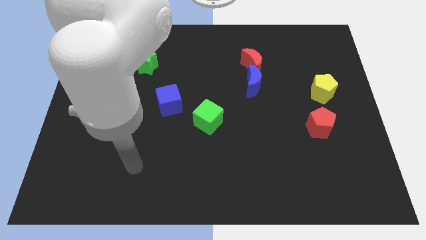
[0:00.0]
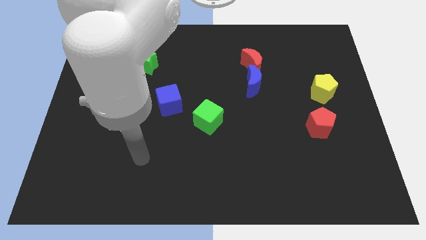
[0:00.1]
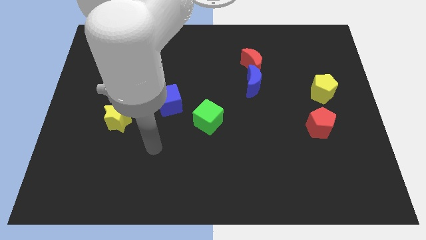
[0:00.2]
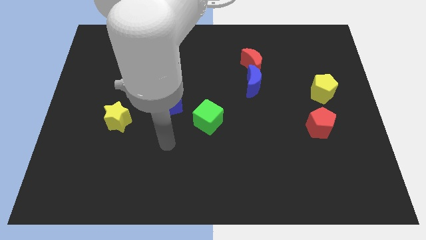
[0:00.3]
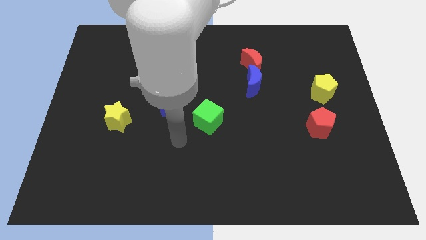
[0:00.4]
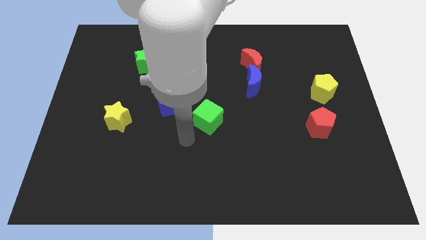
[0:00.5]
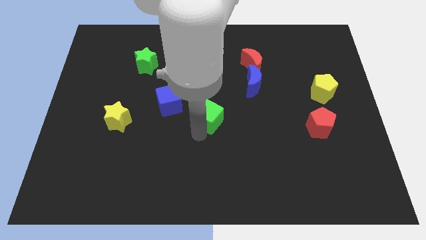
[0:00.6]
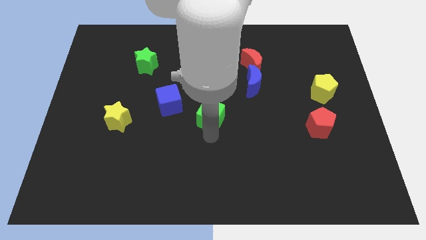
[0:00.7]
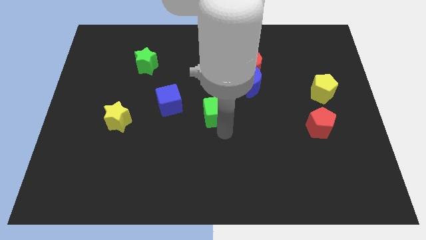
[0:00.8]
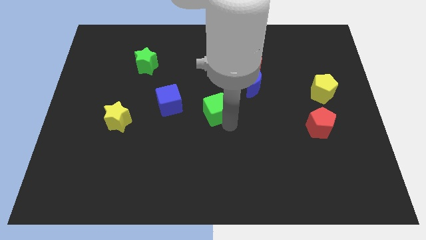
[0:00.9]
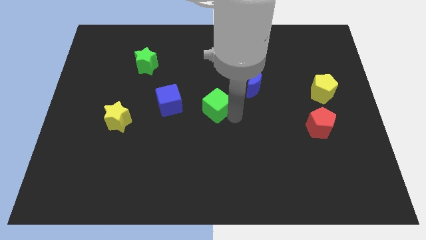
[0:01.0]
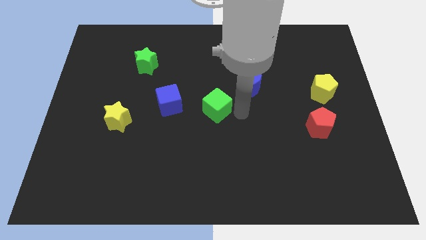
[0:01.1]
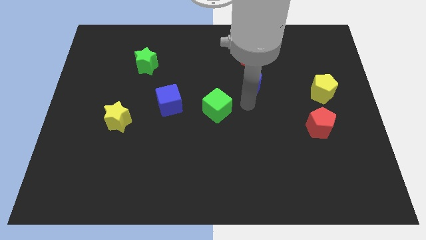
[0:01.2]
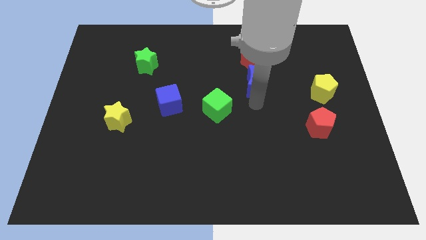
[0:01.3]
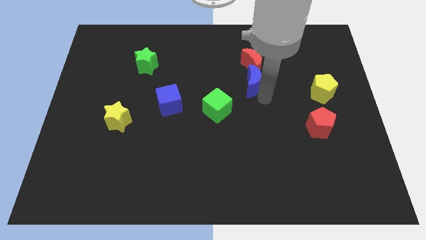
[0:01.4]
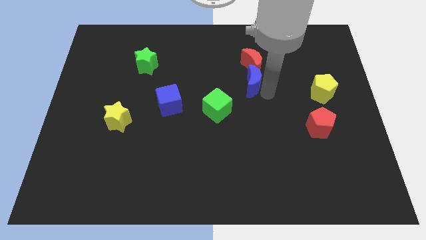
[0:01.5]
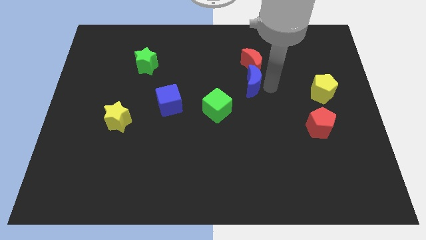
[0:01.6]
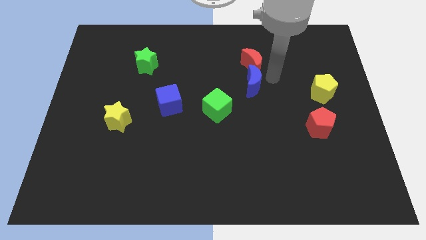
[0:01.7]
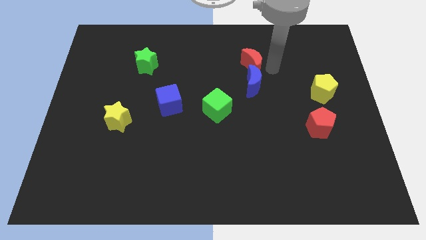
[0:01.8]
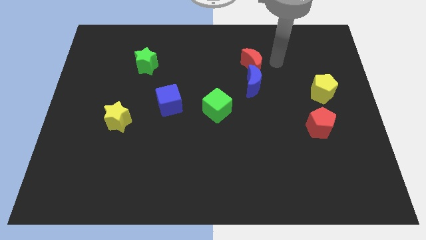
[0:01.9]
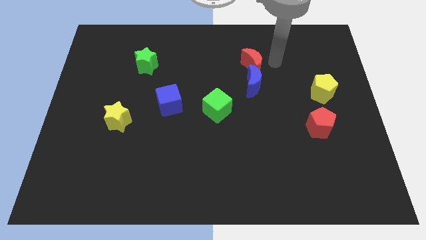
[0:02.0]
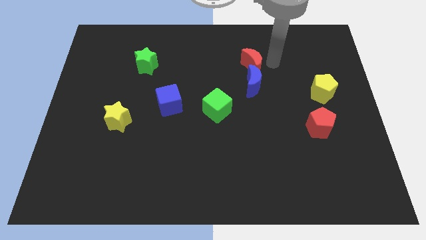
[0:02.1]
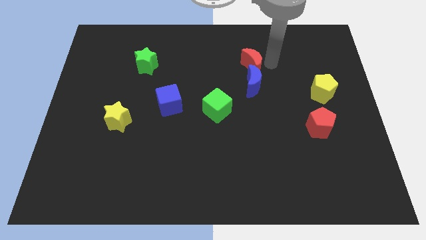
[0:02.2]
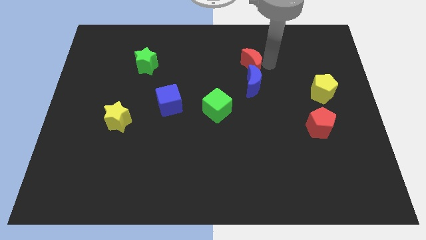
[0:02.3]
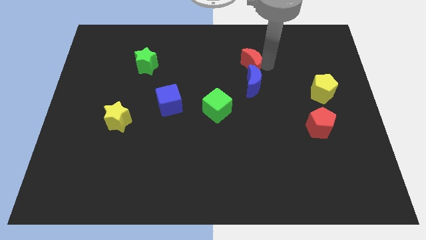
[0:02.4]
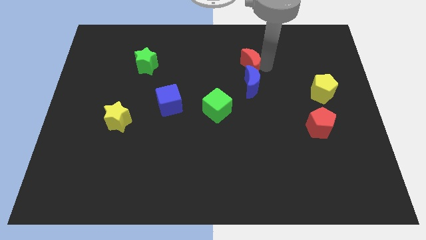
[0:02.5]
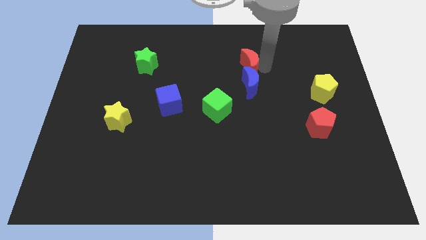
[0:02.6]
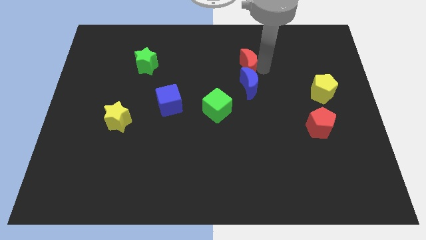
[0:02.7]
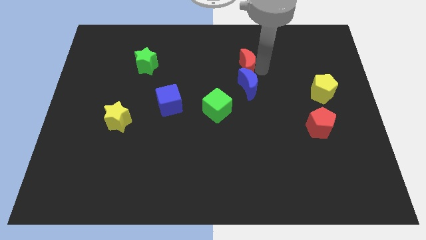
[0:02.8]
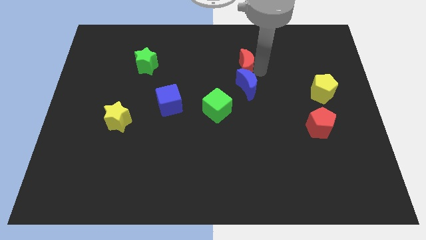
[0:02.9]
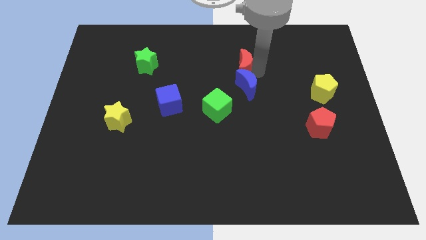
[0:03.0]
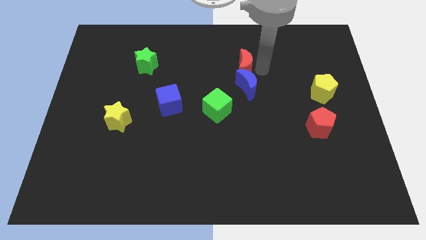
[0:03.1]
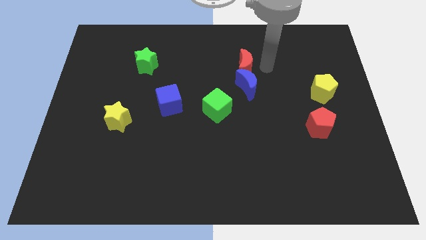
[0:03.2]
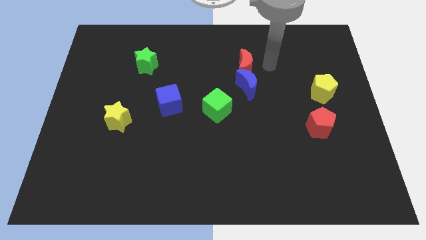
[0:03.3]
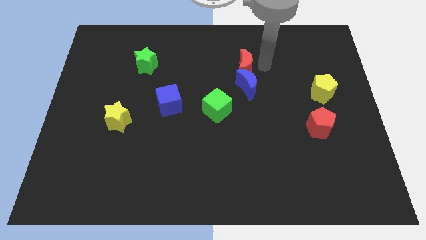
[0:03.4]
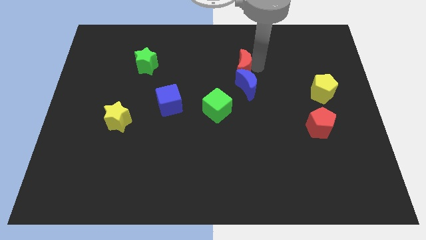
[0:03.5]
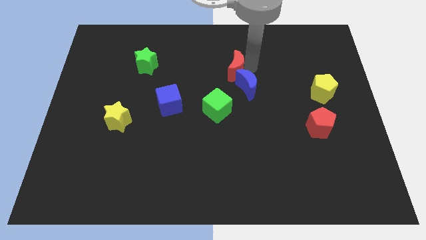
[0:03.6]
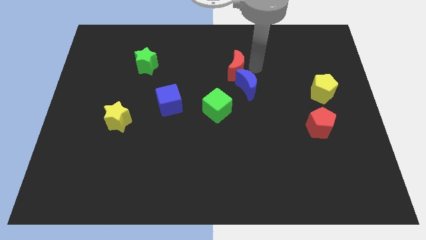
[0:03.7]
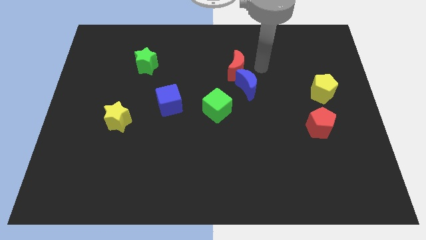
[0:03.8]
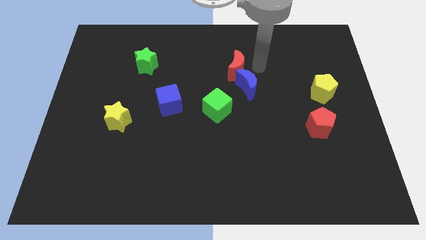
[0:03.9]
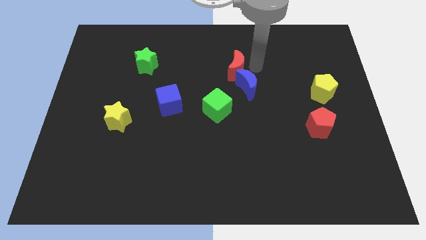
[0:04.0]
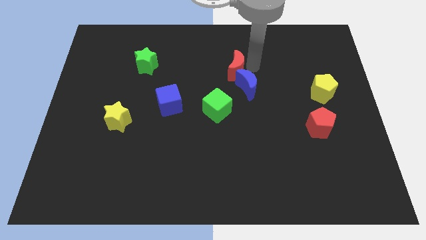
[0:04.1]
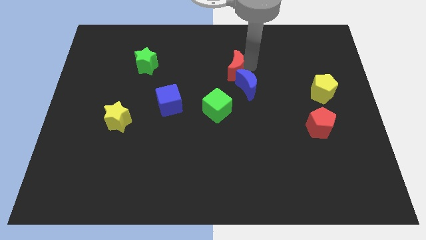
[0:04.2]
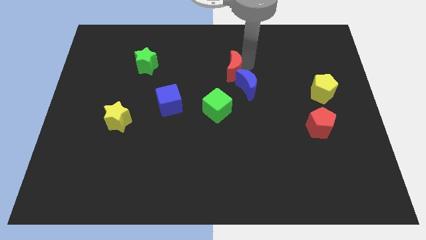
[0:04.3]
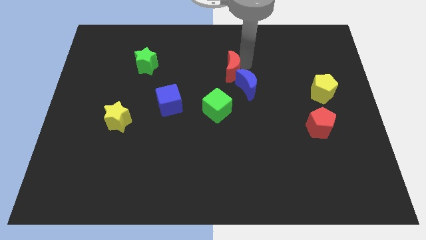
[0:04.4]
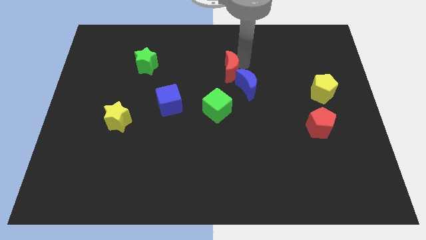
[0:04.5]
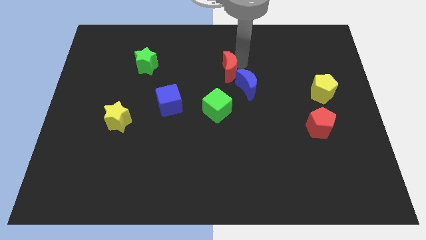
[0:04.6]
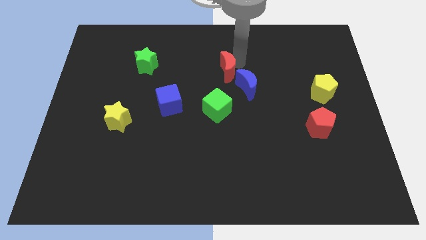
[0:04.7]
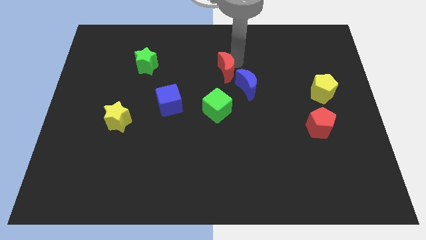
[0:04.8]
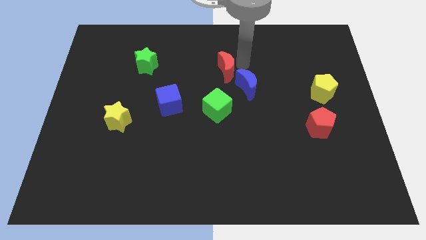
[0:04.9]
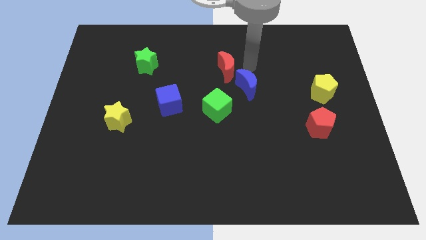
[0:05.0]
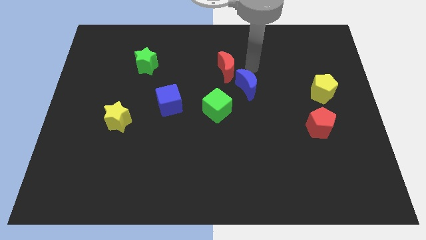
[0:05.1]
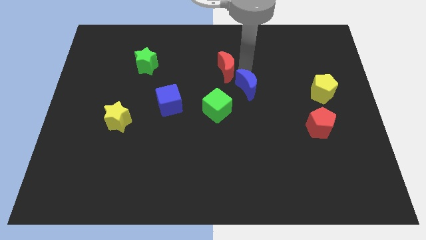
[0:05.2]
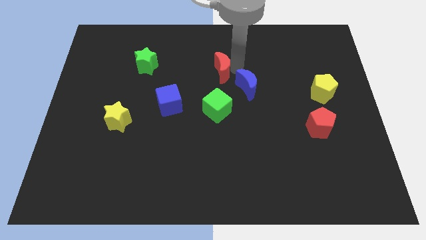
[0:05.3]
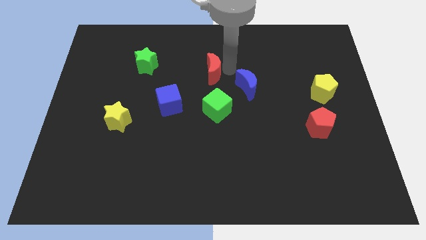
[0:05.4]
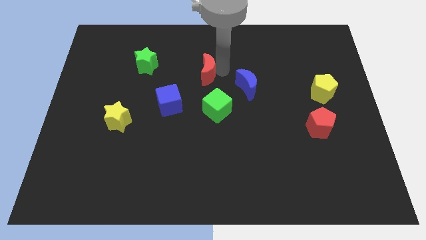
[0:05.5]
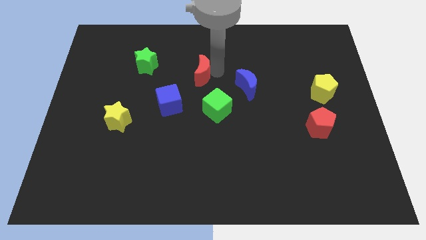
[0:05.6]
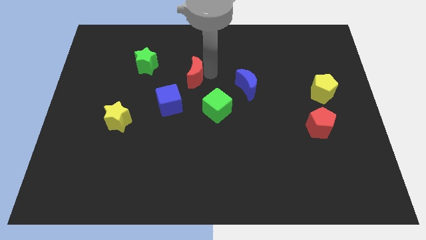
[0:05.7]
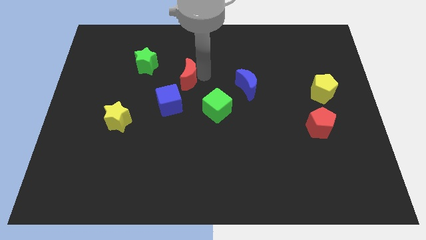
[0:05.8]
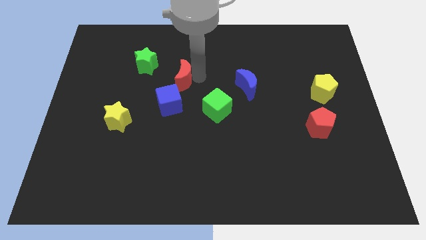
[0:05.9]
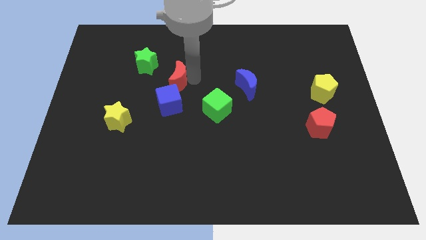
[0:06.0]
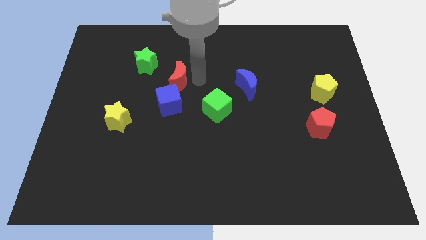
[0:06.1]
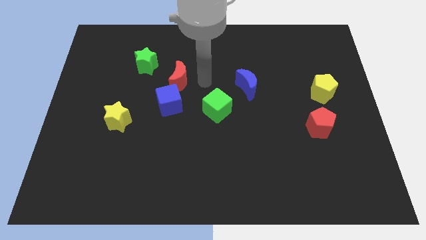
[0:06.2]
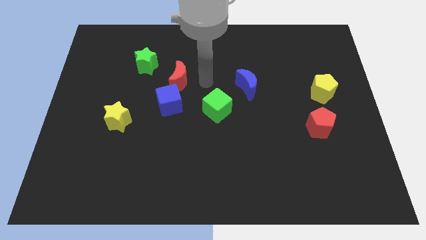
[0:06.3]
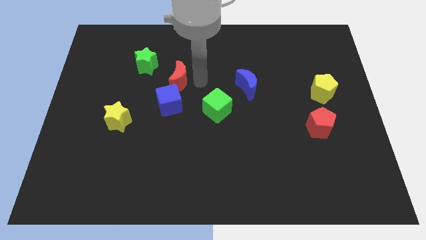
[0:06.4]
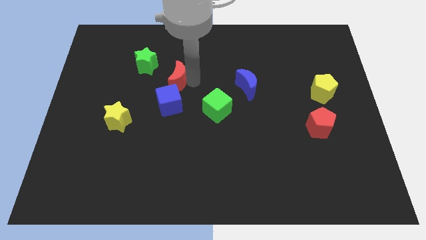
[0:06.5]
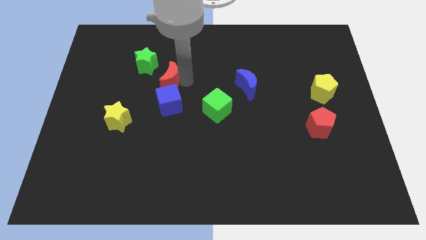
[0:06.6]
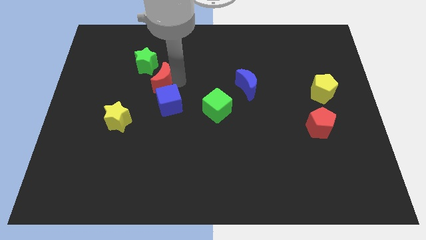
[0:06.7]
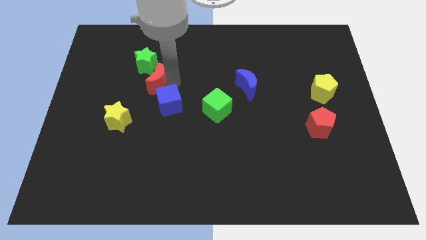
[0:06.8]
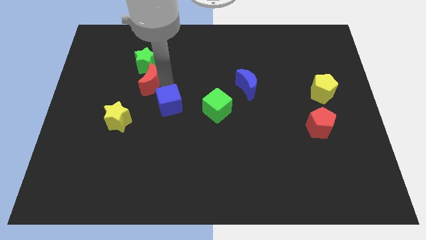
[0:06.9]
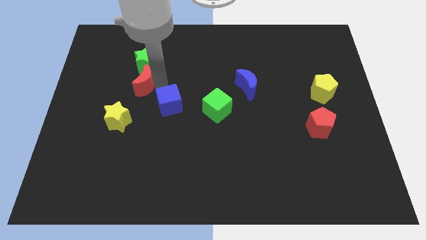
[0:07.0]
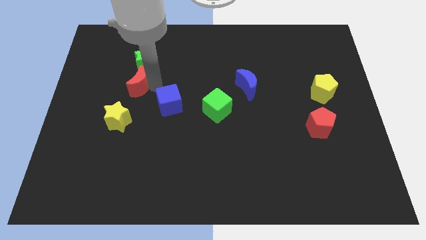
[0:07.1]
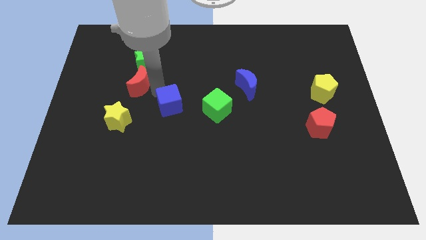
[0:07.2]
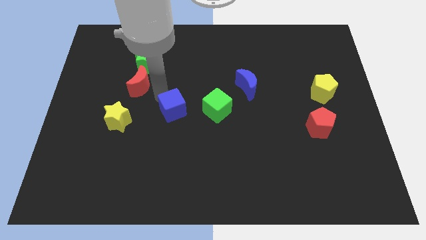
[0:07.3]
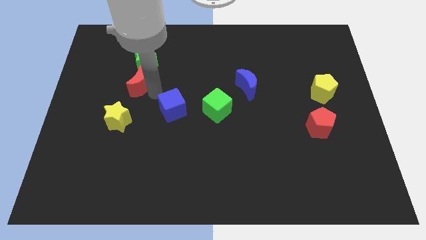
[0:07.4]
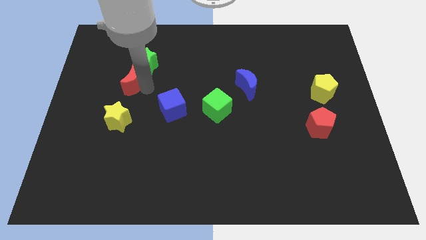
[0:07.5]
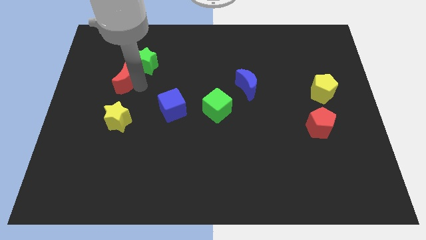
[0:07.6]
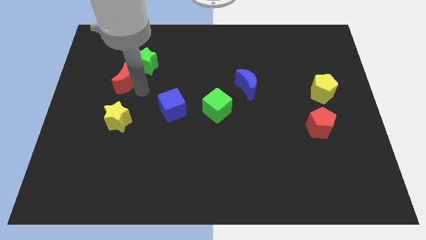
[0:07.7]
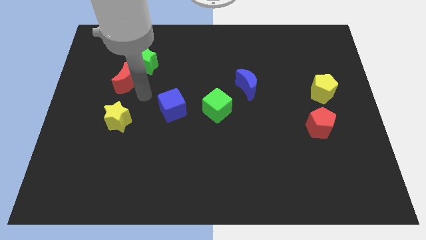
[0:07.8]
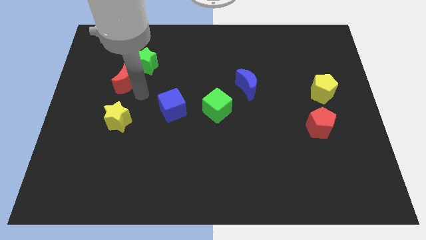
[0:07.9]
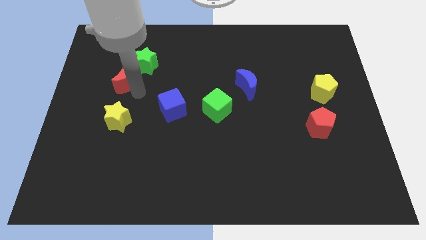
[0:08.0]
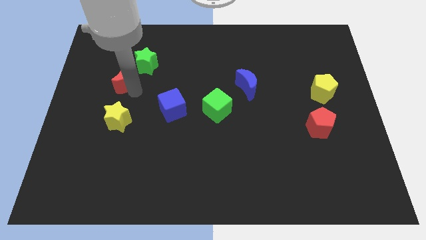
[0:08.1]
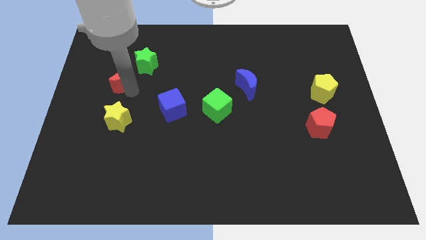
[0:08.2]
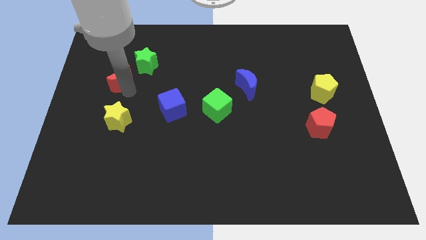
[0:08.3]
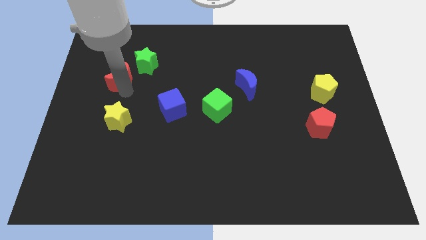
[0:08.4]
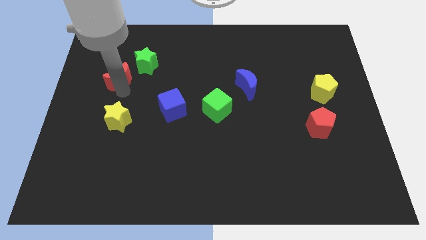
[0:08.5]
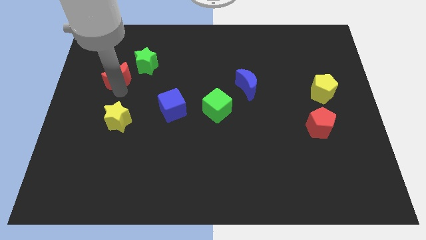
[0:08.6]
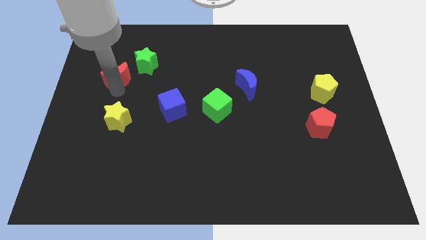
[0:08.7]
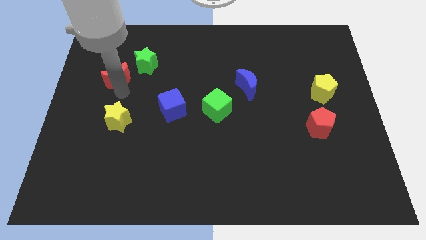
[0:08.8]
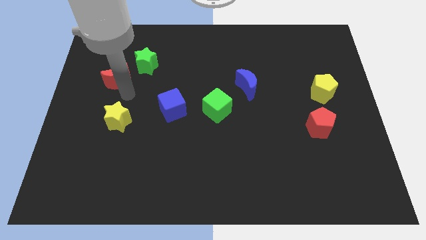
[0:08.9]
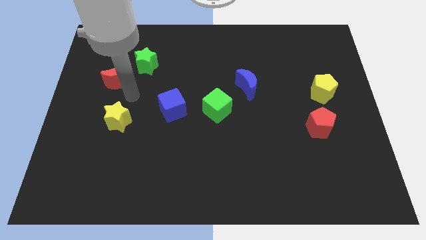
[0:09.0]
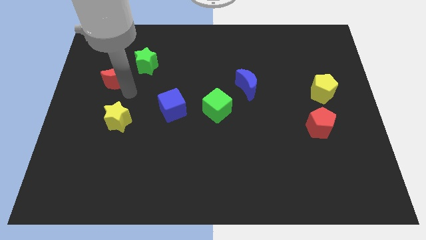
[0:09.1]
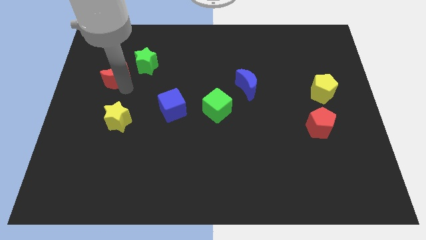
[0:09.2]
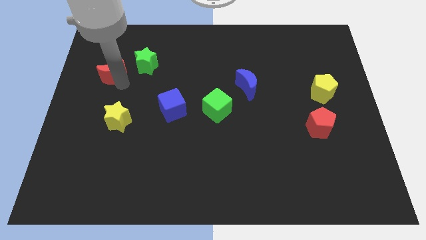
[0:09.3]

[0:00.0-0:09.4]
slide the red moon to the left side of the green star
